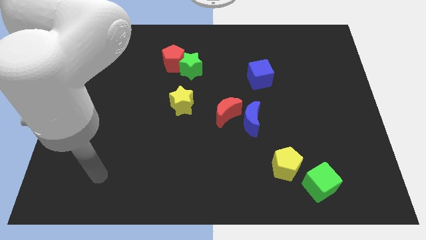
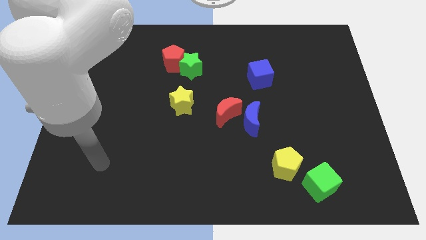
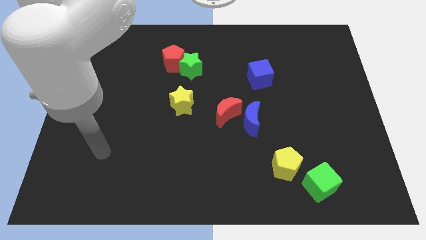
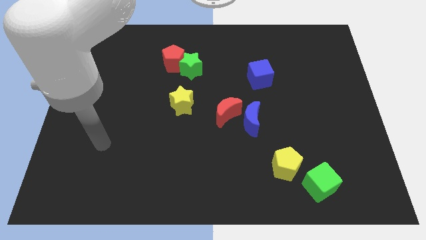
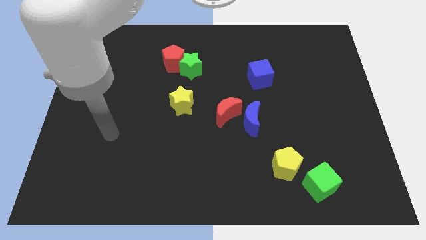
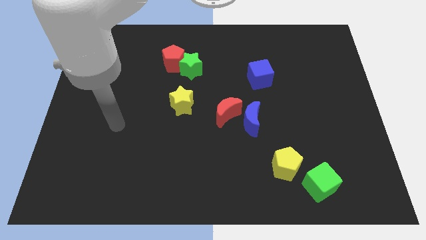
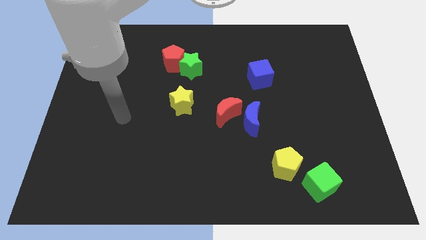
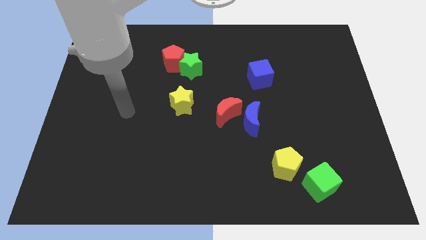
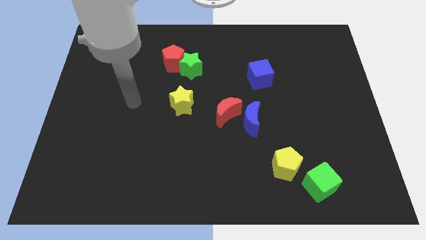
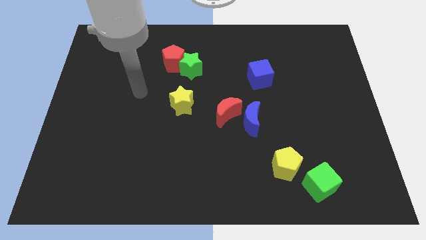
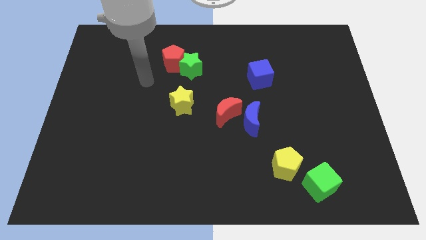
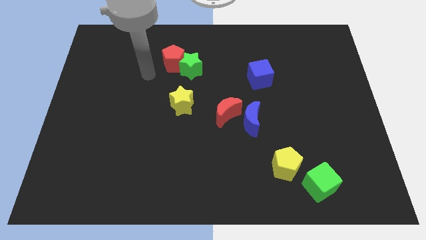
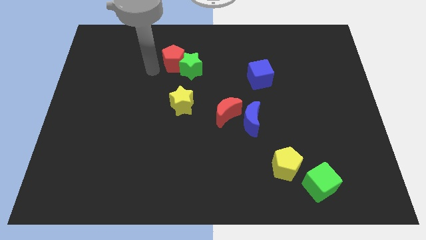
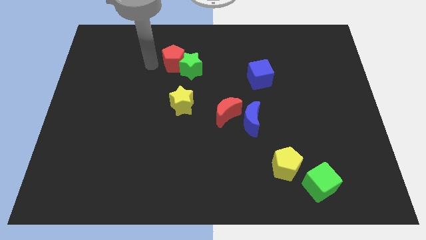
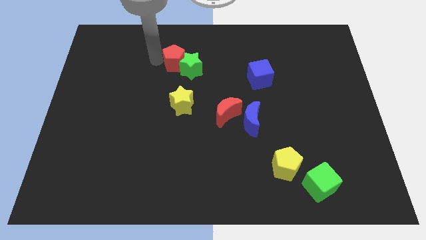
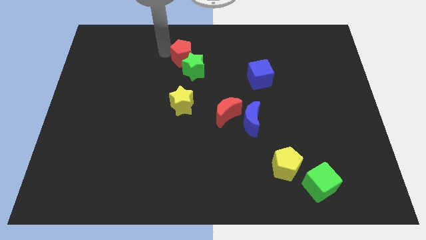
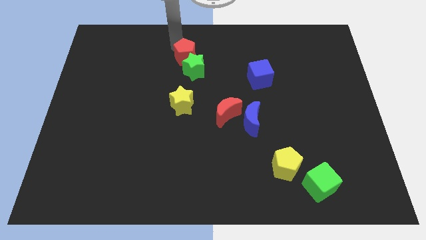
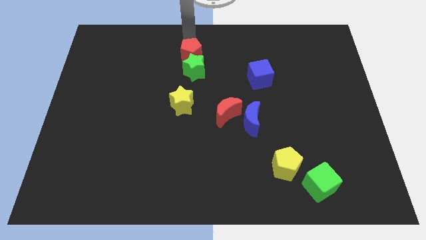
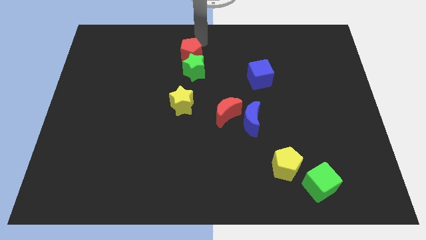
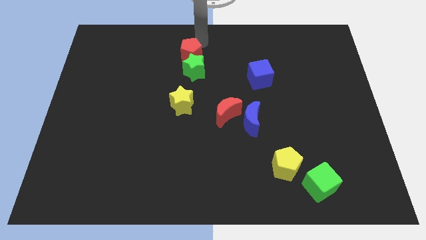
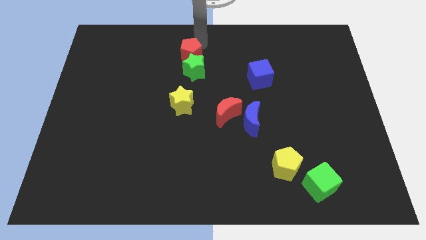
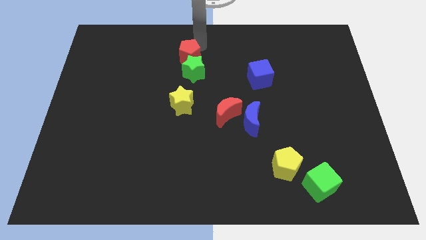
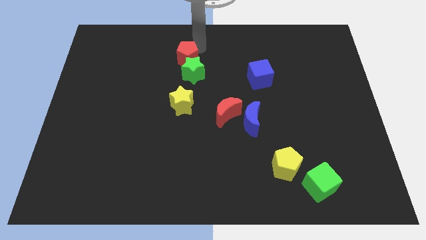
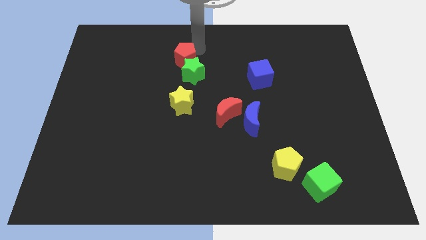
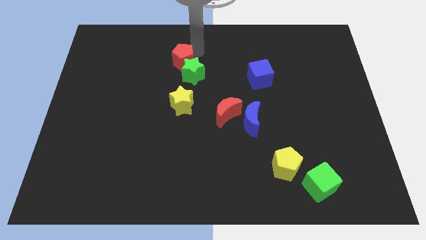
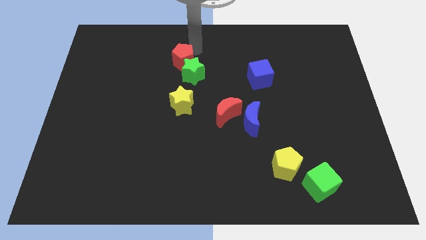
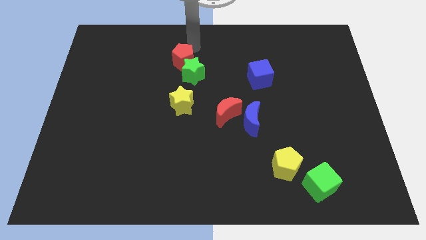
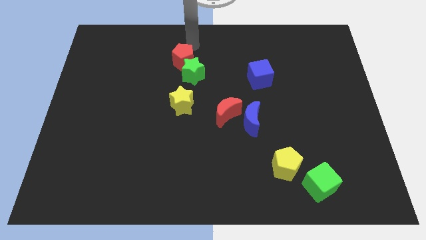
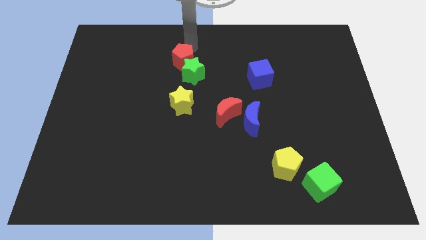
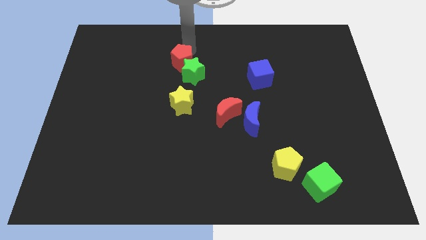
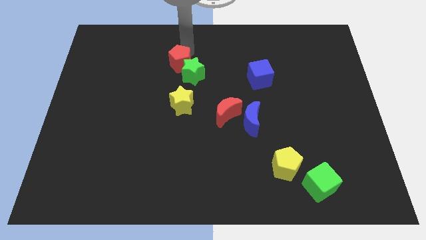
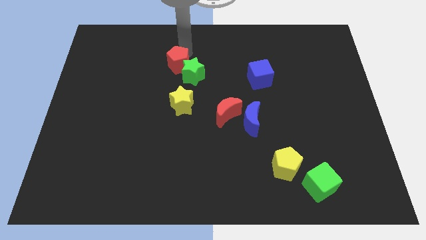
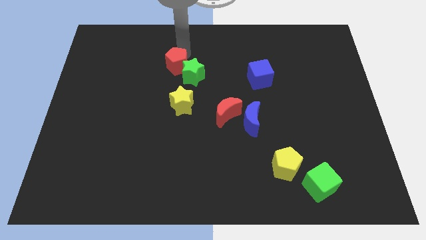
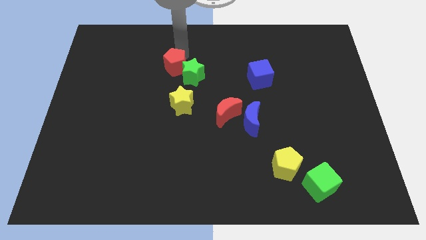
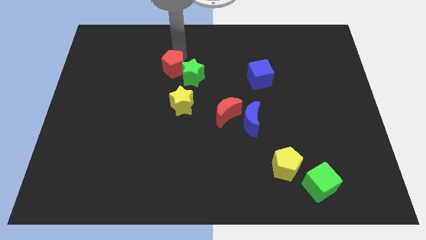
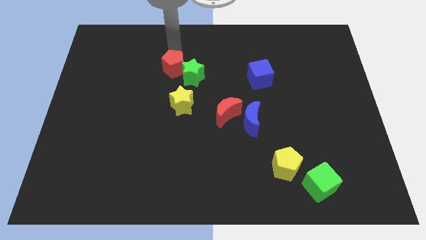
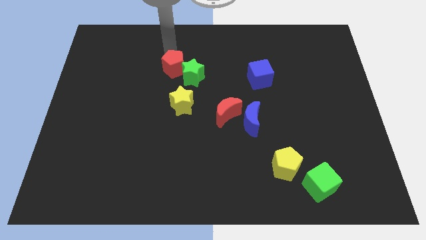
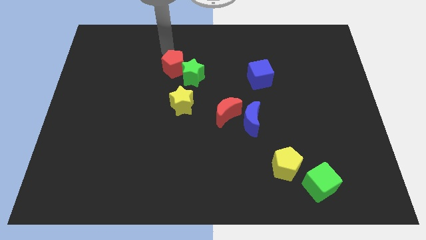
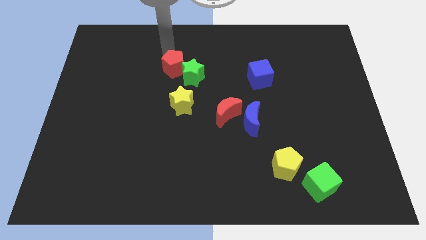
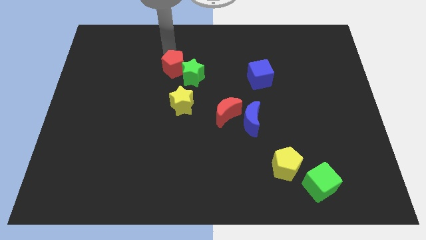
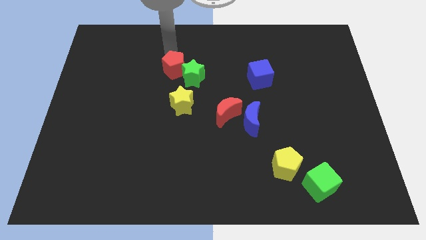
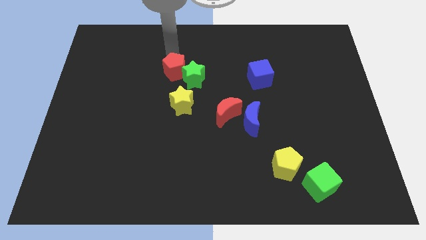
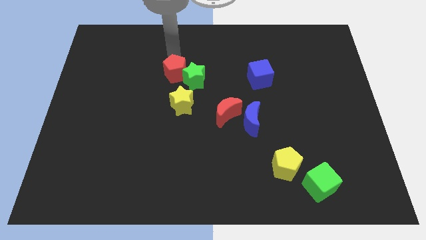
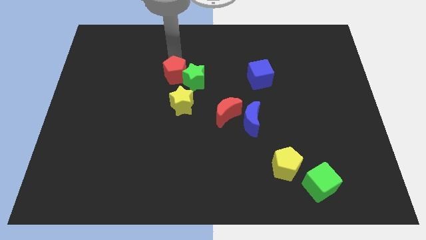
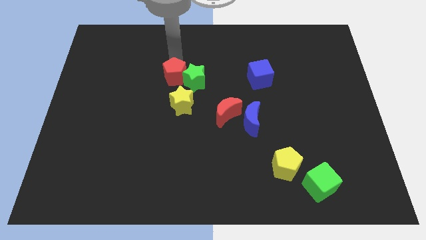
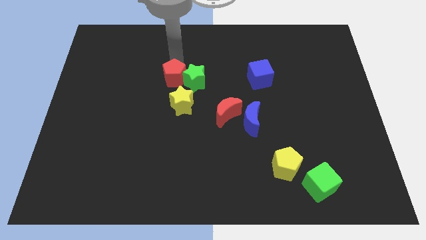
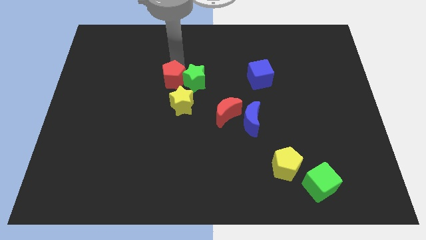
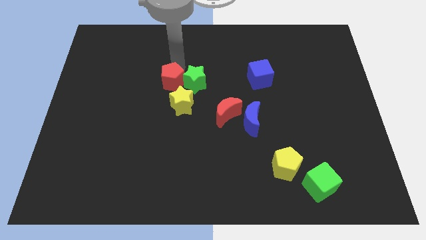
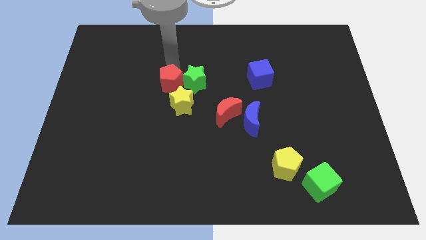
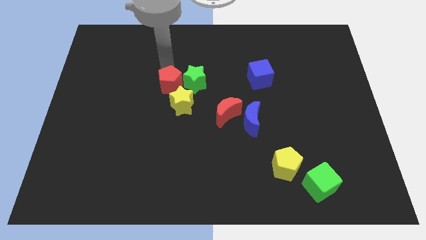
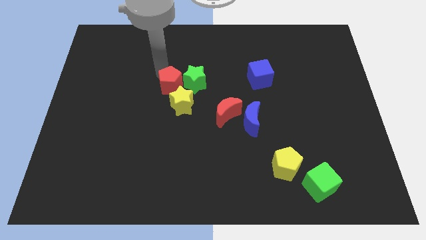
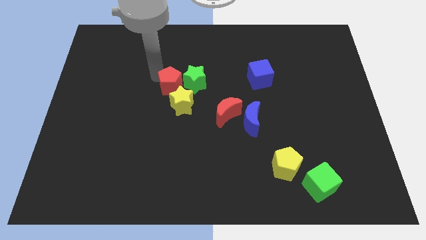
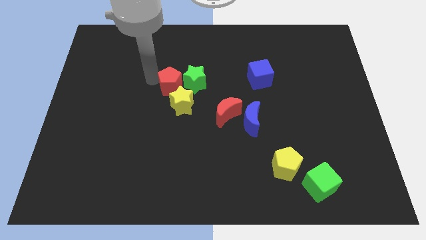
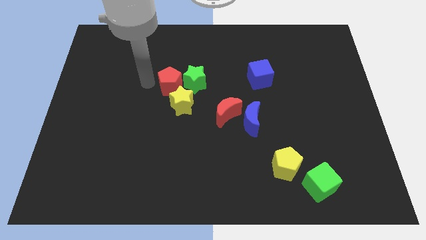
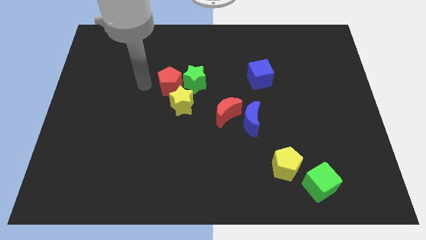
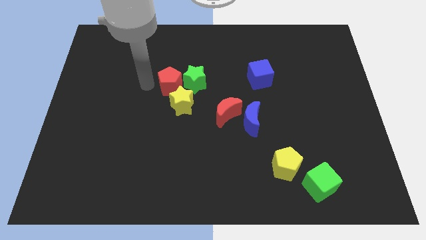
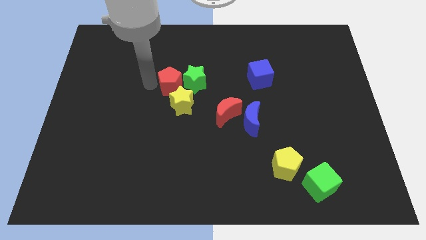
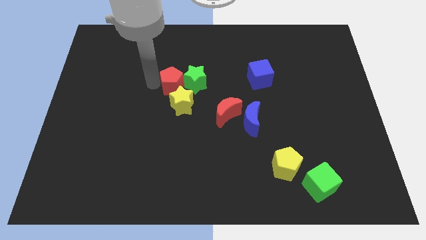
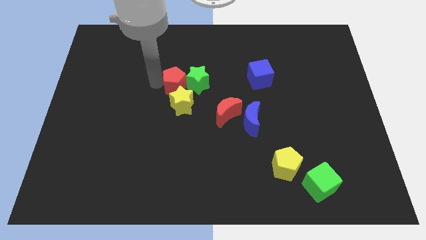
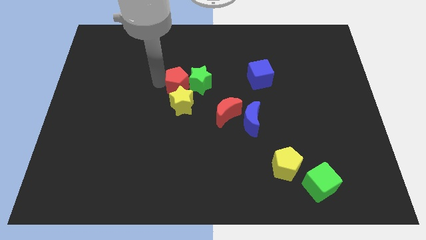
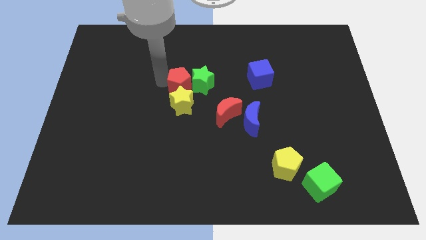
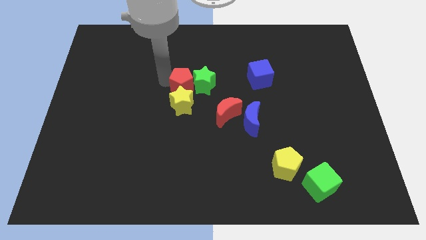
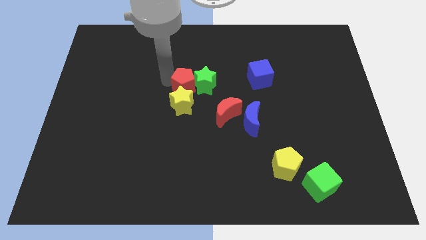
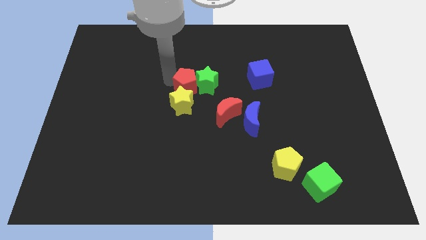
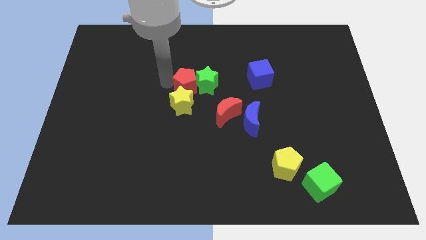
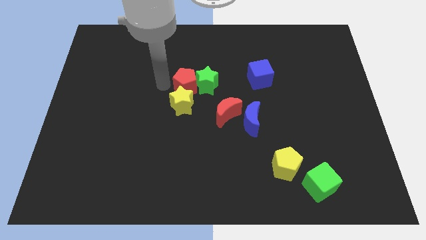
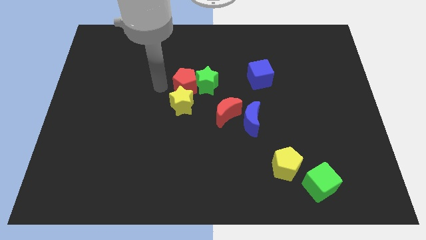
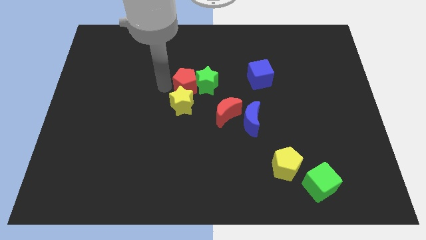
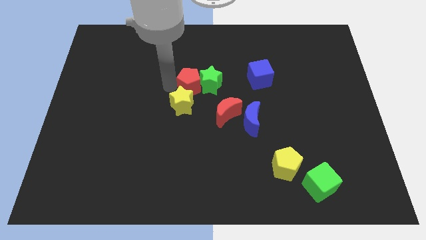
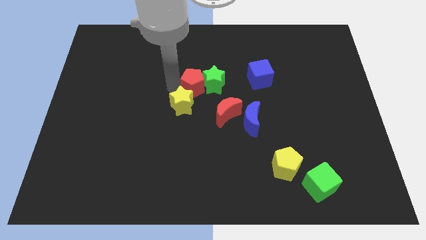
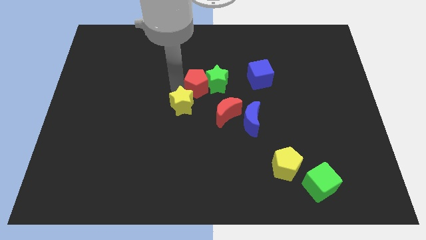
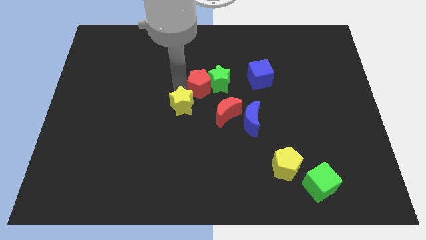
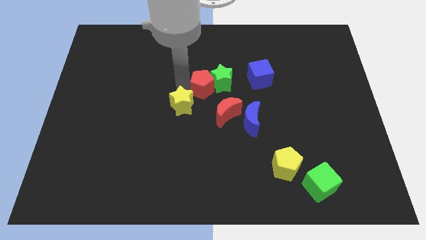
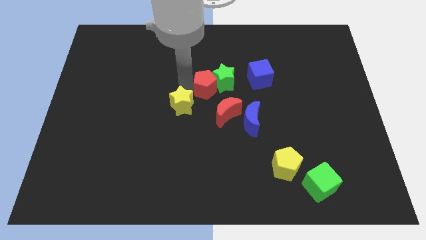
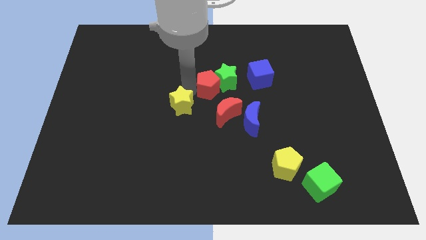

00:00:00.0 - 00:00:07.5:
push the red pentagon to the top side of the red moon

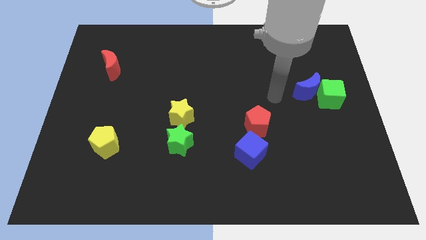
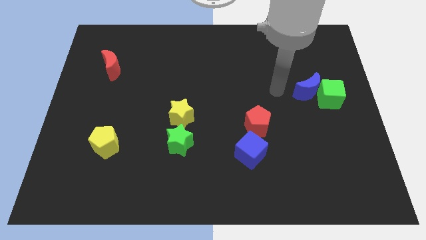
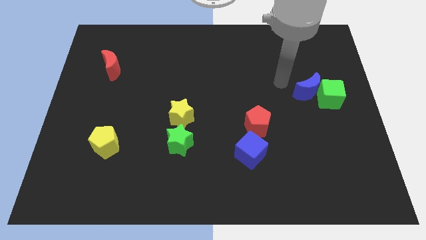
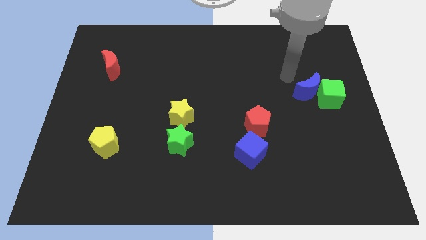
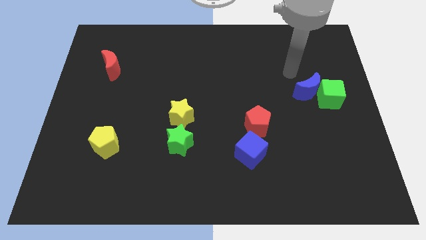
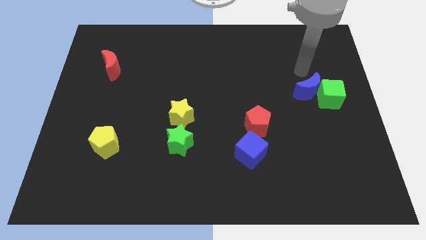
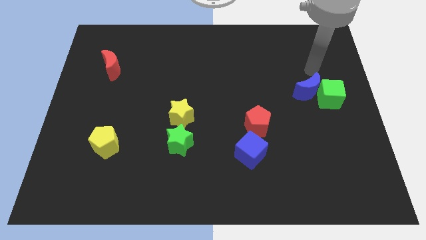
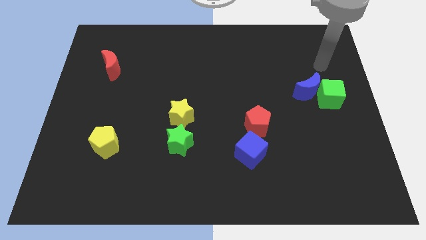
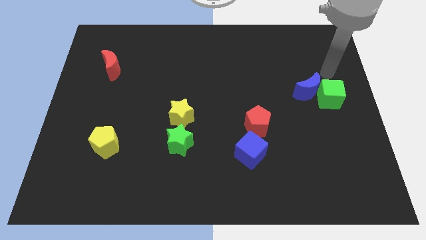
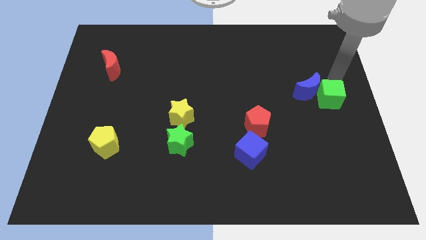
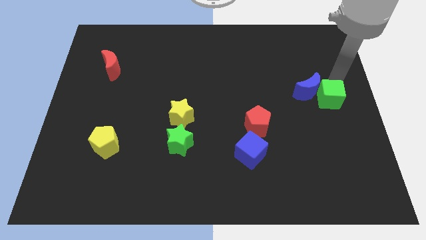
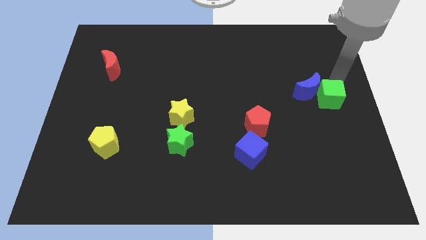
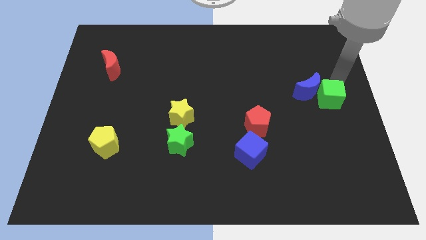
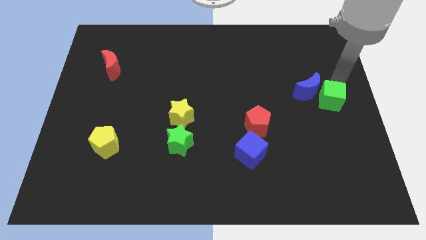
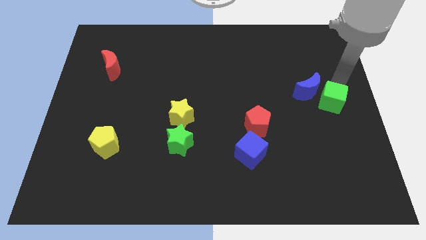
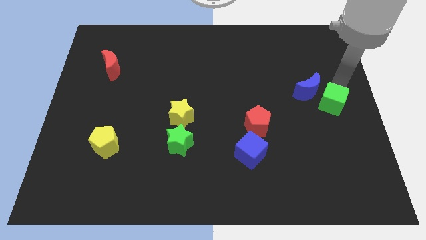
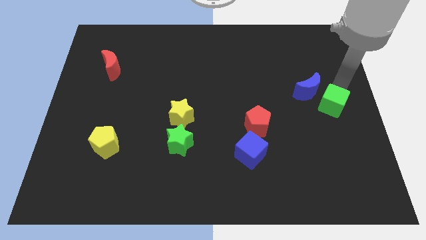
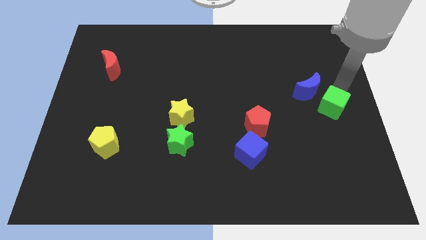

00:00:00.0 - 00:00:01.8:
put the green cube to the bottom of the blue moon
